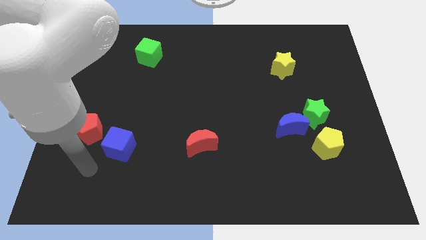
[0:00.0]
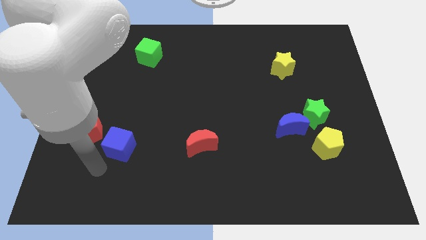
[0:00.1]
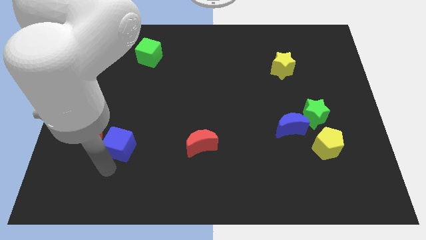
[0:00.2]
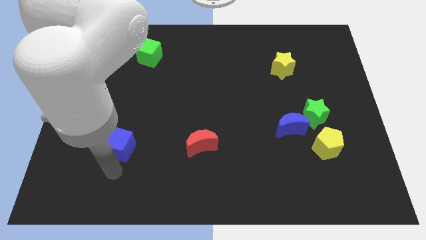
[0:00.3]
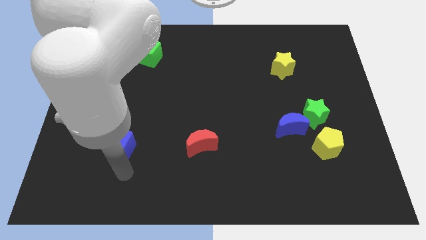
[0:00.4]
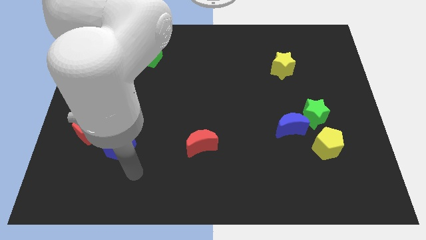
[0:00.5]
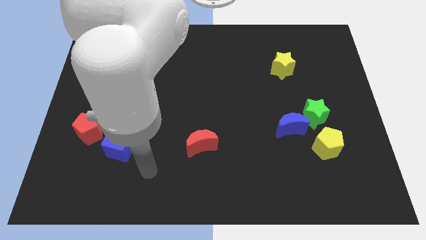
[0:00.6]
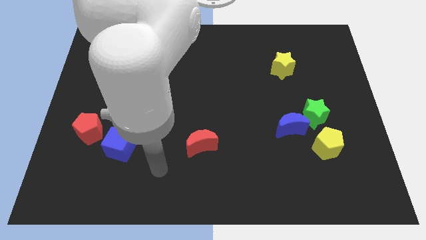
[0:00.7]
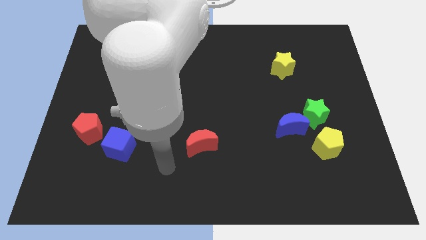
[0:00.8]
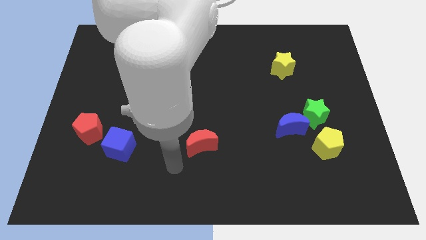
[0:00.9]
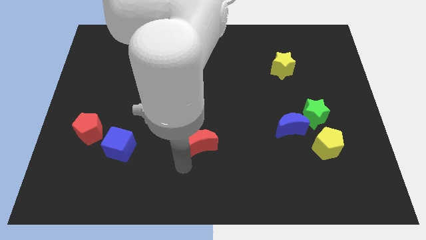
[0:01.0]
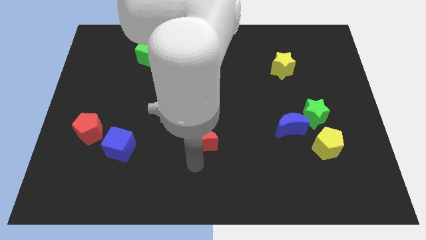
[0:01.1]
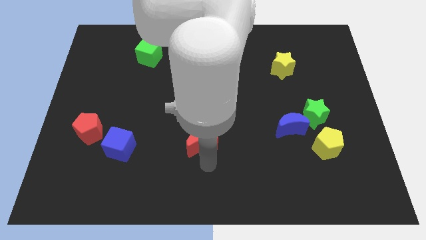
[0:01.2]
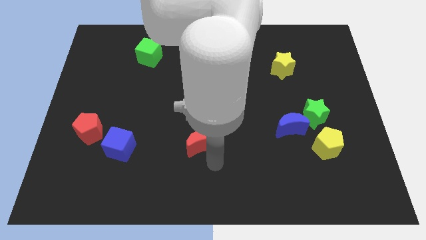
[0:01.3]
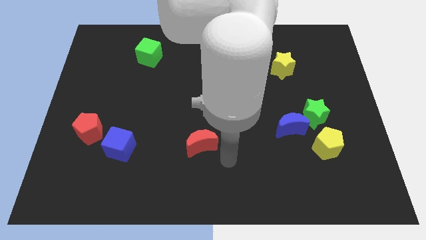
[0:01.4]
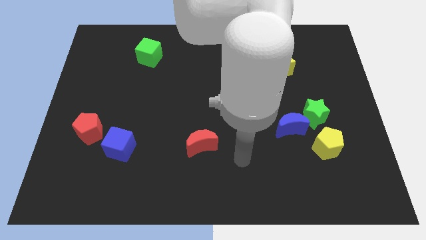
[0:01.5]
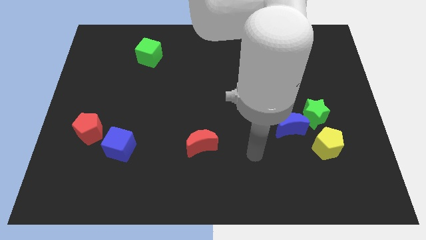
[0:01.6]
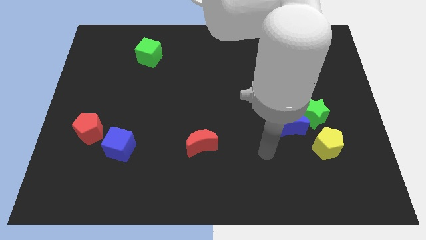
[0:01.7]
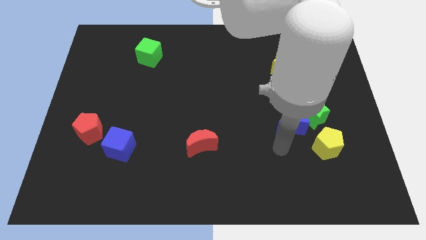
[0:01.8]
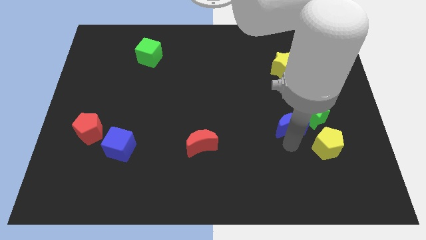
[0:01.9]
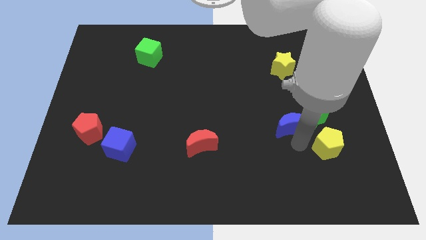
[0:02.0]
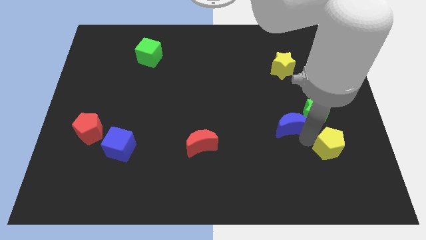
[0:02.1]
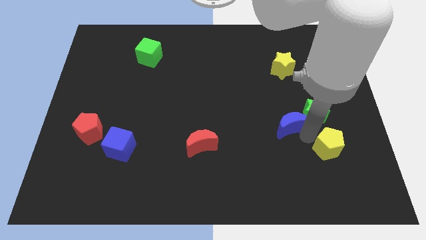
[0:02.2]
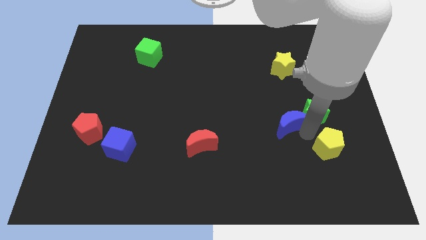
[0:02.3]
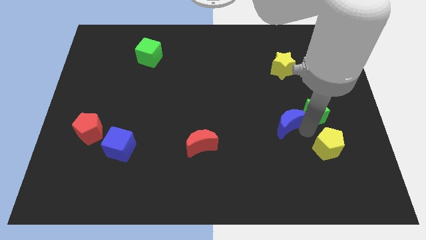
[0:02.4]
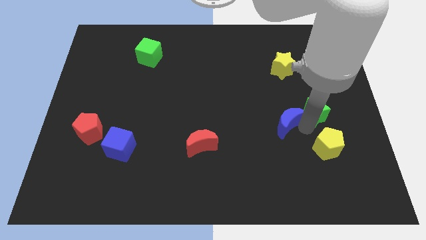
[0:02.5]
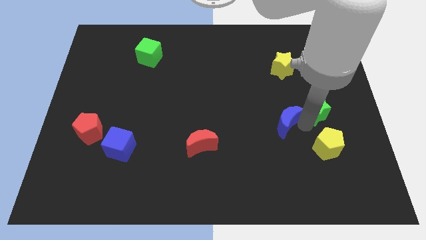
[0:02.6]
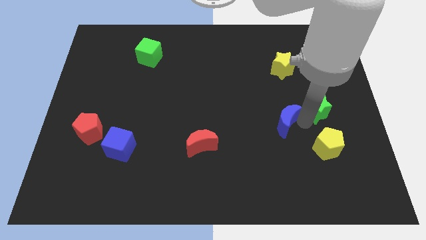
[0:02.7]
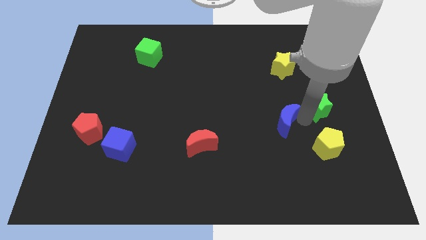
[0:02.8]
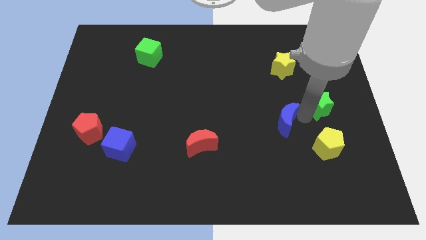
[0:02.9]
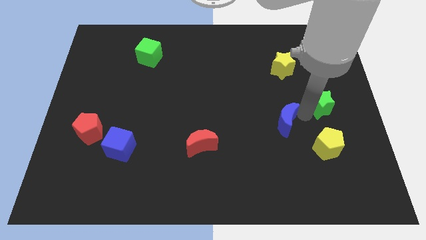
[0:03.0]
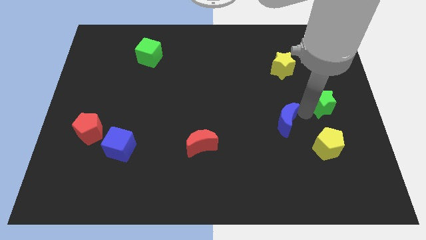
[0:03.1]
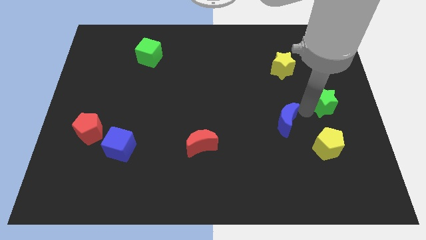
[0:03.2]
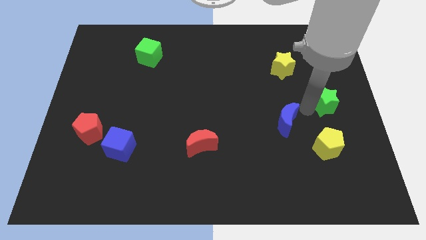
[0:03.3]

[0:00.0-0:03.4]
move the green star away from the blue moon and yellow pentagon

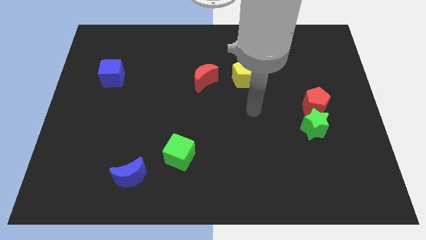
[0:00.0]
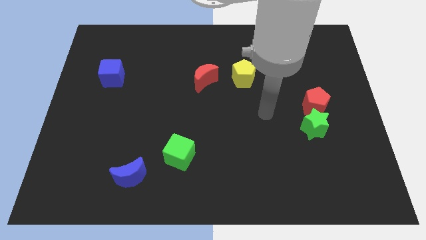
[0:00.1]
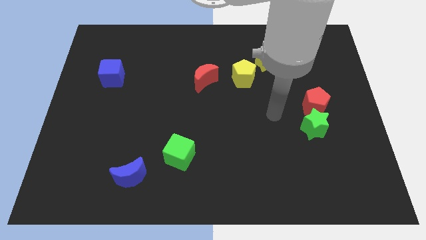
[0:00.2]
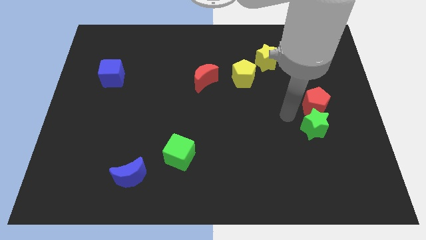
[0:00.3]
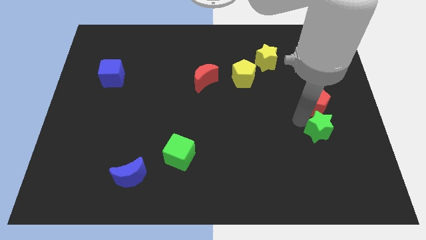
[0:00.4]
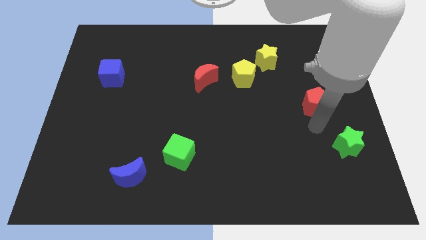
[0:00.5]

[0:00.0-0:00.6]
pull the red pentagon apart from the green star

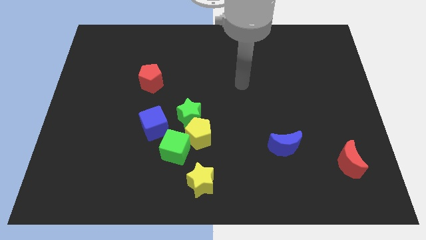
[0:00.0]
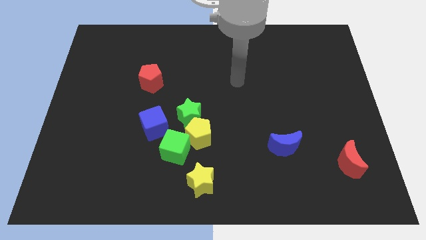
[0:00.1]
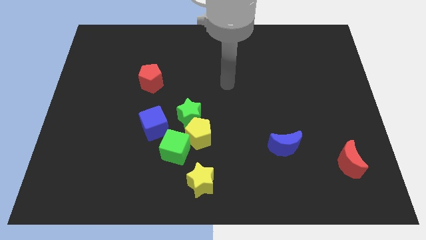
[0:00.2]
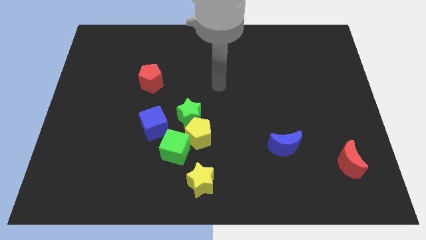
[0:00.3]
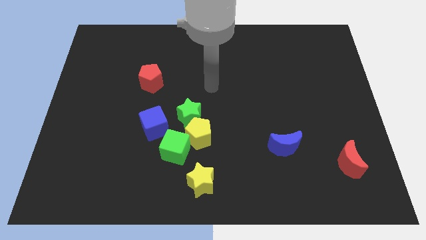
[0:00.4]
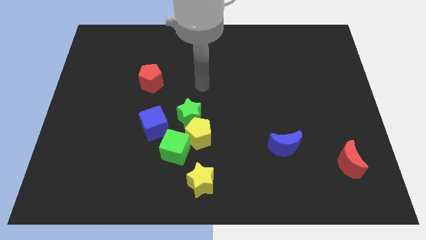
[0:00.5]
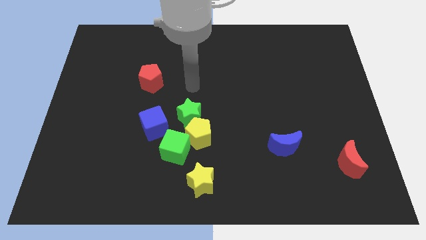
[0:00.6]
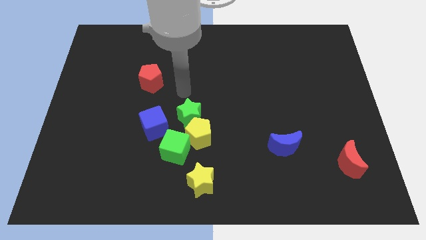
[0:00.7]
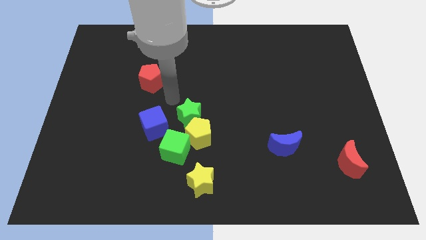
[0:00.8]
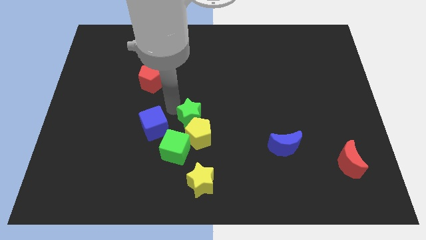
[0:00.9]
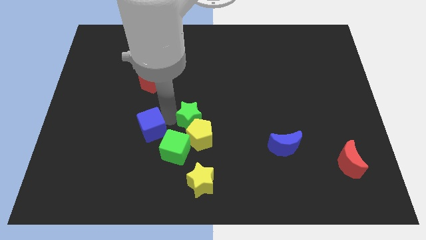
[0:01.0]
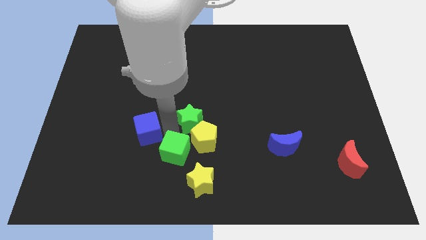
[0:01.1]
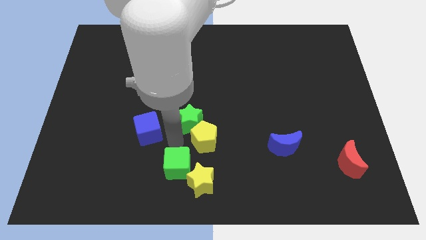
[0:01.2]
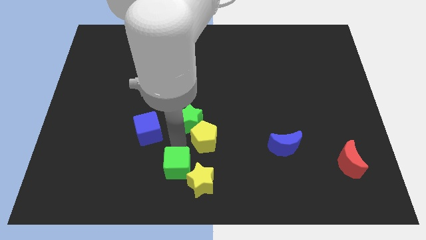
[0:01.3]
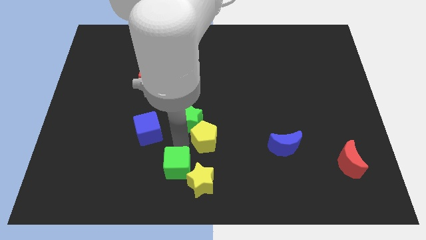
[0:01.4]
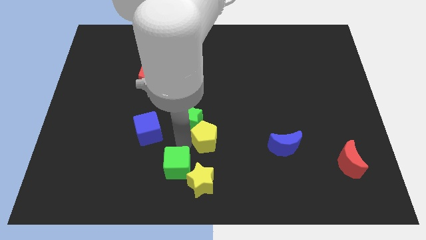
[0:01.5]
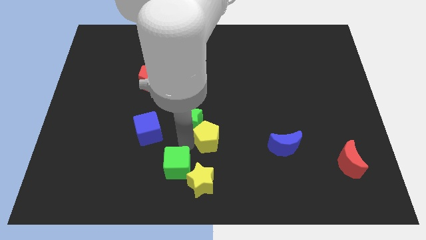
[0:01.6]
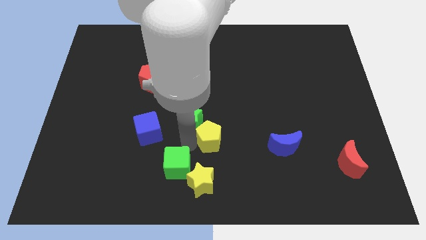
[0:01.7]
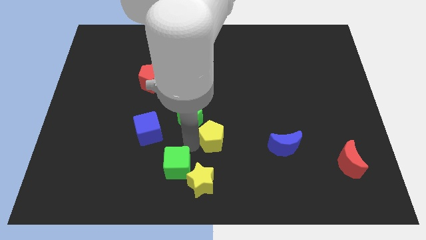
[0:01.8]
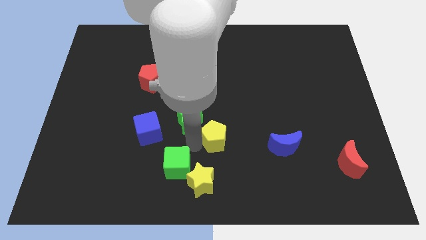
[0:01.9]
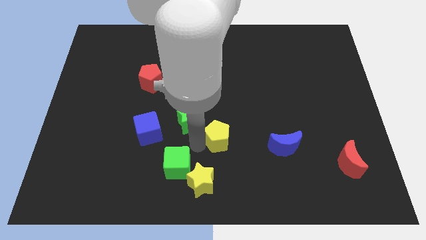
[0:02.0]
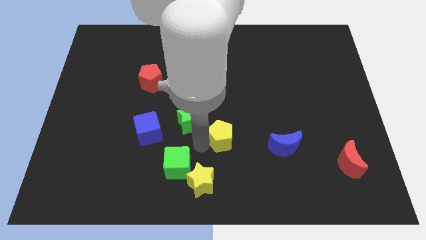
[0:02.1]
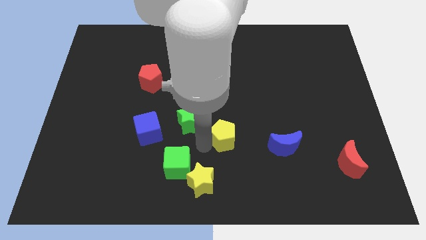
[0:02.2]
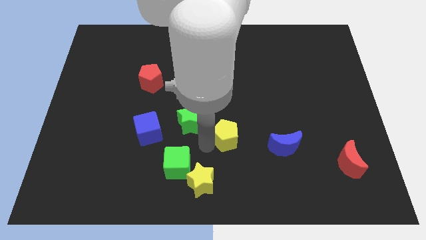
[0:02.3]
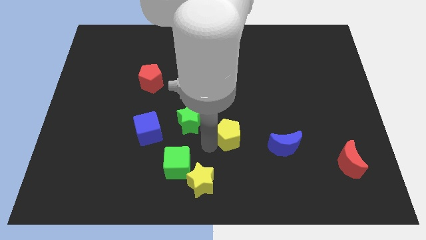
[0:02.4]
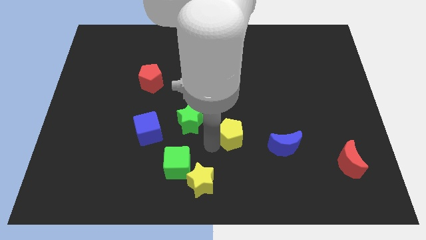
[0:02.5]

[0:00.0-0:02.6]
pull the yellow pentagon apart from the green star and green cube

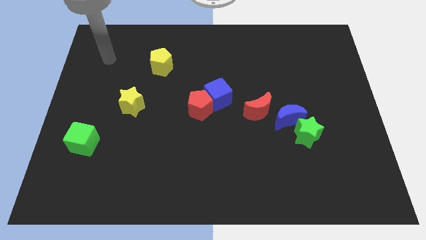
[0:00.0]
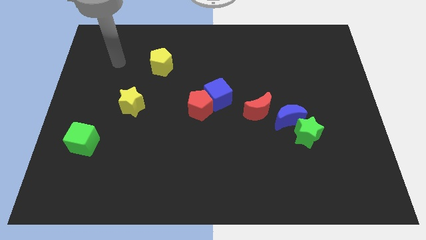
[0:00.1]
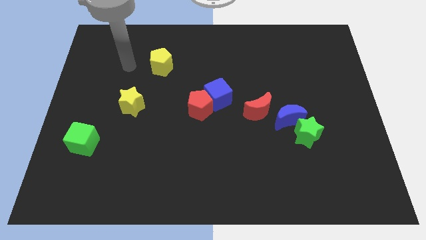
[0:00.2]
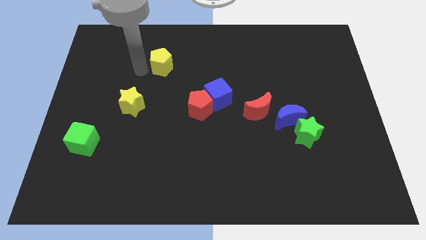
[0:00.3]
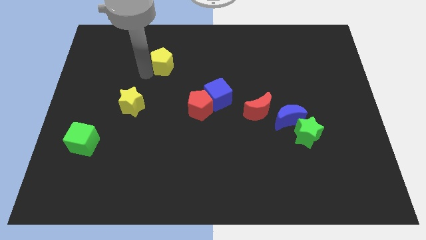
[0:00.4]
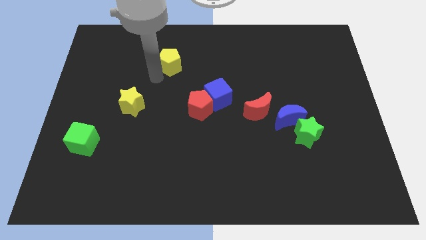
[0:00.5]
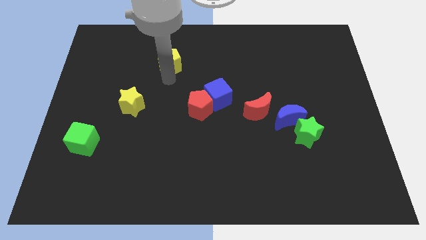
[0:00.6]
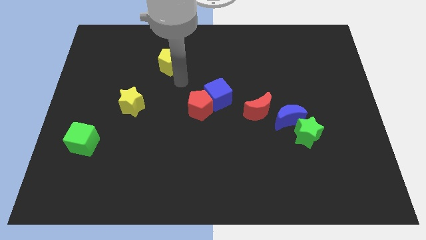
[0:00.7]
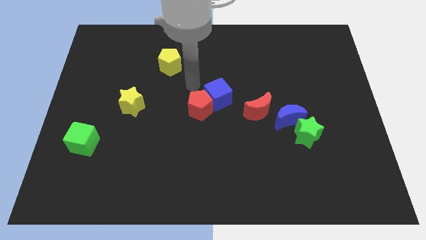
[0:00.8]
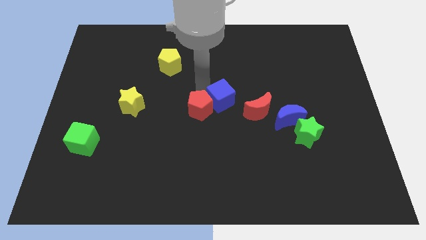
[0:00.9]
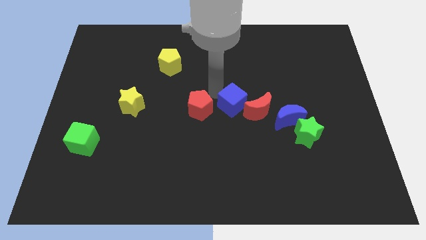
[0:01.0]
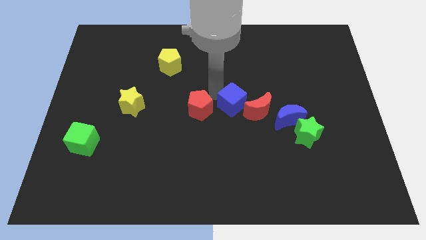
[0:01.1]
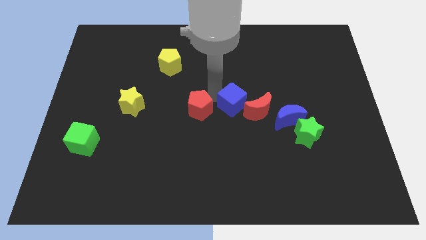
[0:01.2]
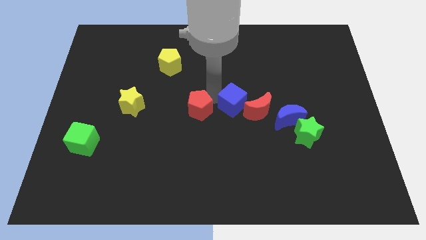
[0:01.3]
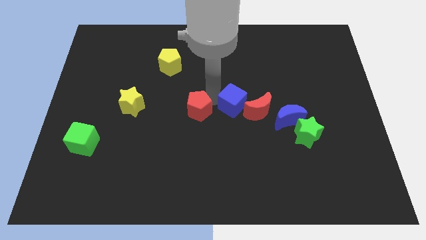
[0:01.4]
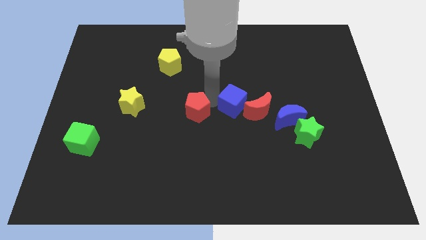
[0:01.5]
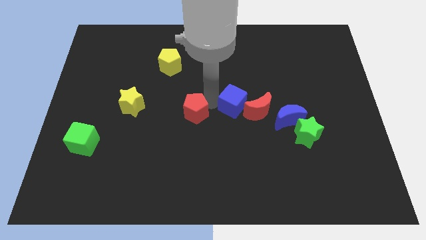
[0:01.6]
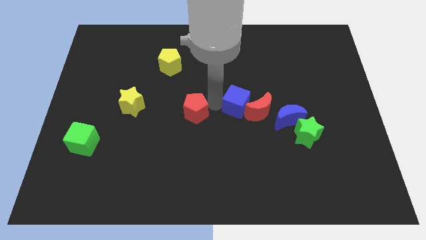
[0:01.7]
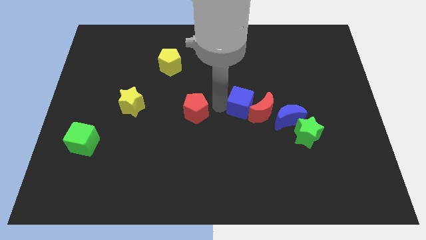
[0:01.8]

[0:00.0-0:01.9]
pull the red pentagon apart from the blue cube

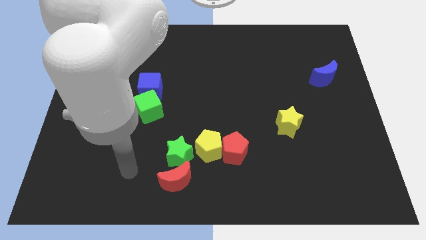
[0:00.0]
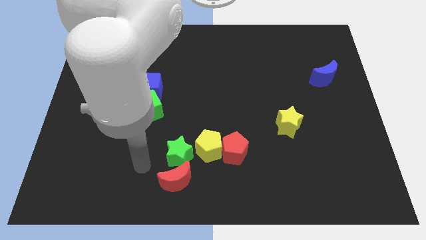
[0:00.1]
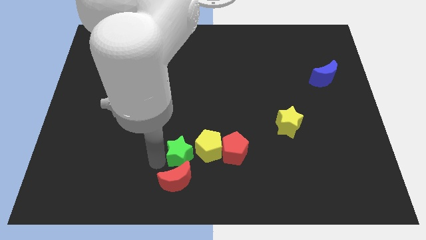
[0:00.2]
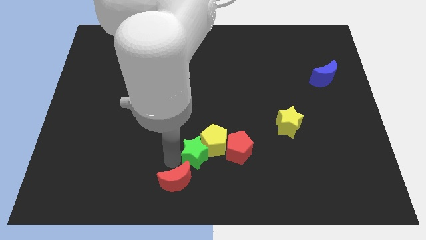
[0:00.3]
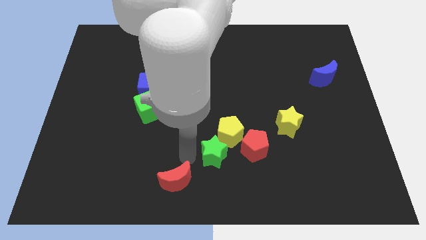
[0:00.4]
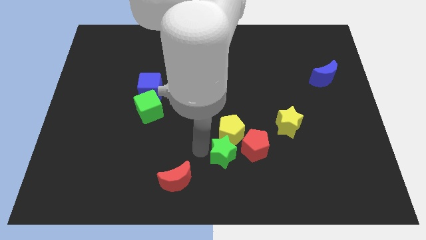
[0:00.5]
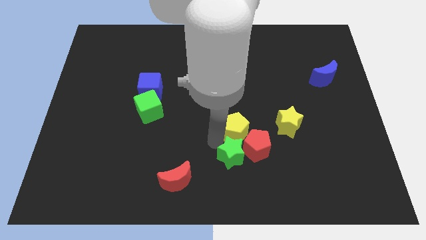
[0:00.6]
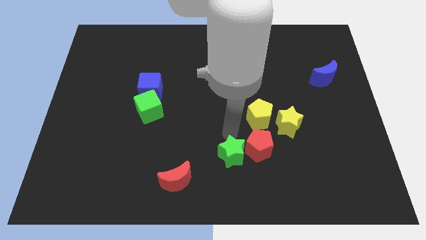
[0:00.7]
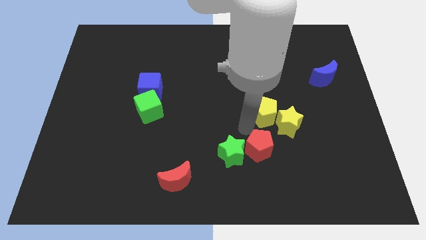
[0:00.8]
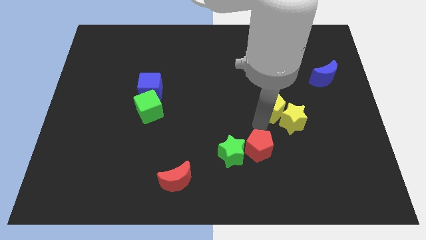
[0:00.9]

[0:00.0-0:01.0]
move the red pentagon away from the yellow pentagon
